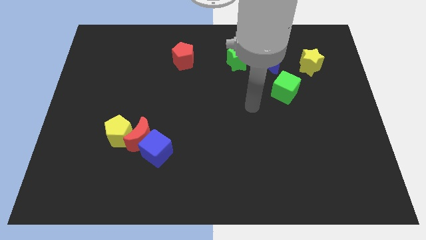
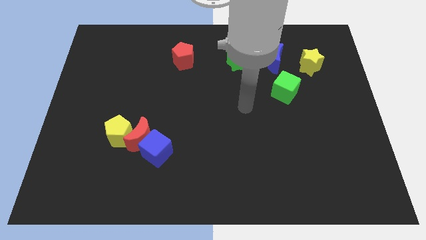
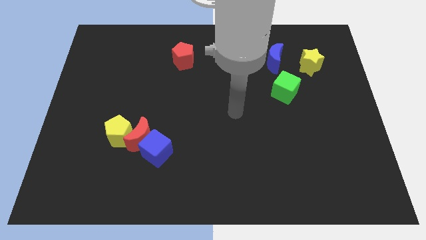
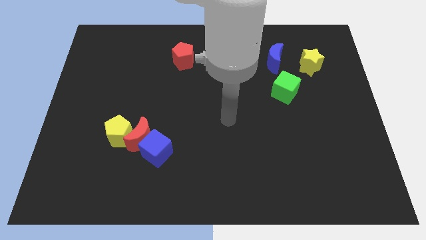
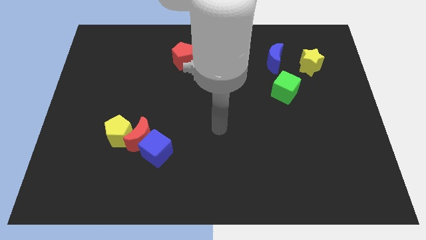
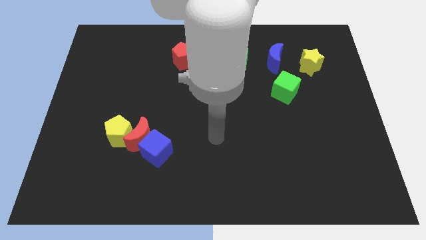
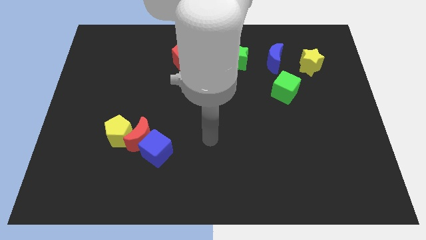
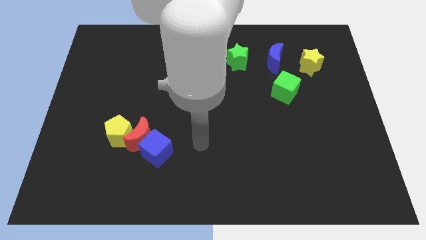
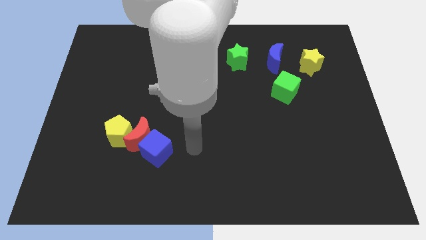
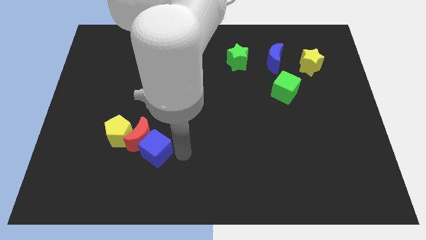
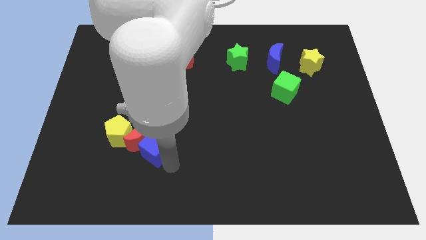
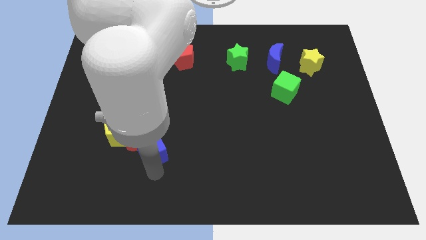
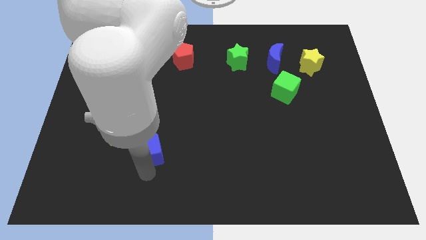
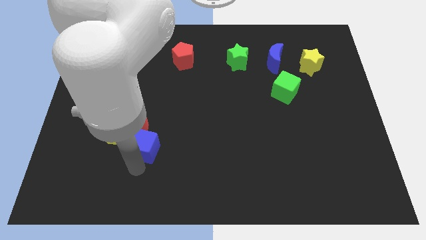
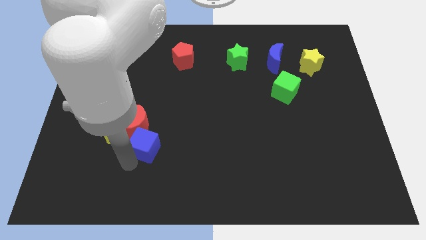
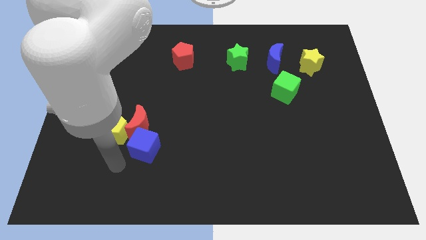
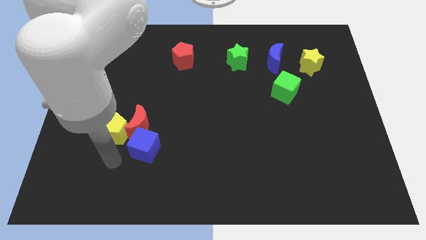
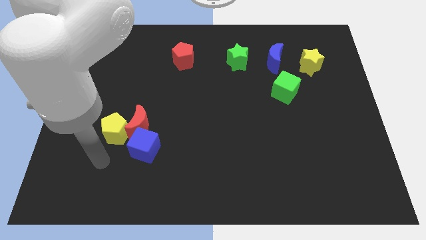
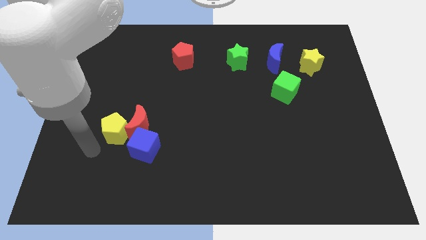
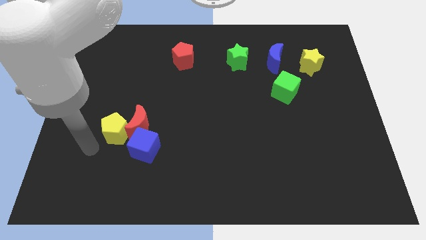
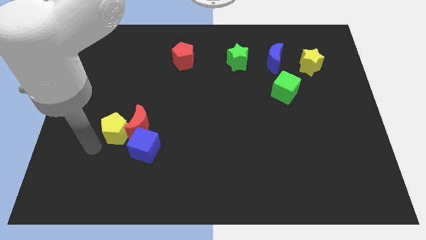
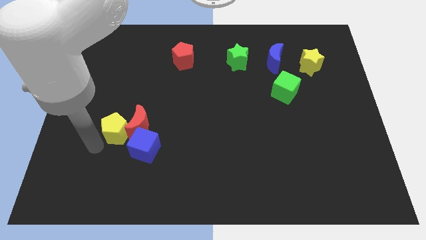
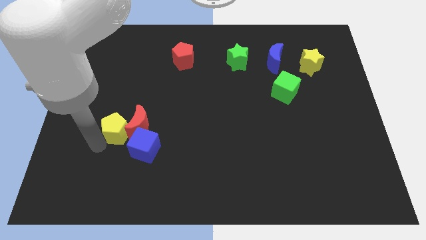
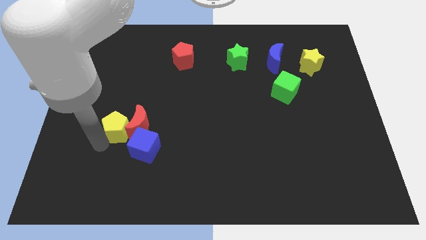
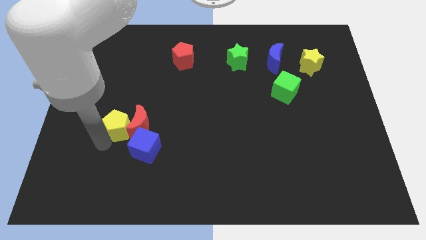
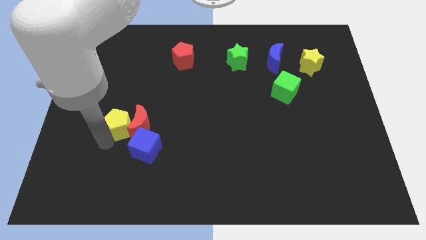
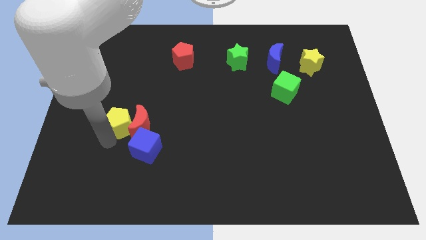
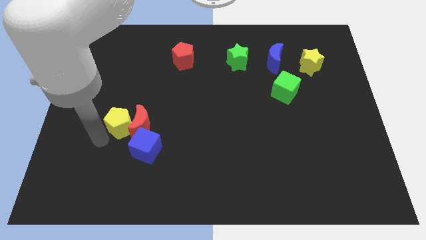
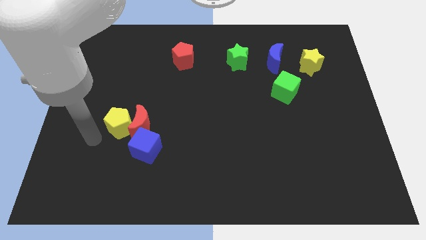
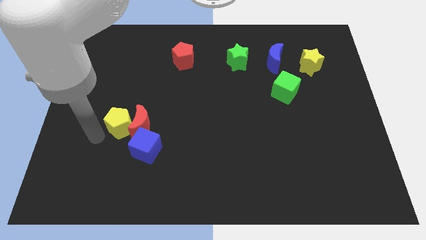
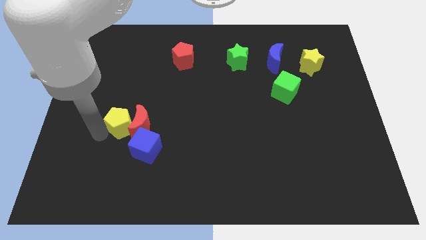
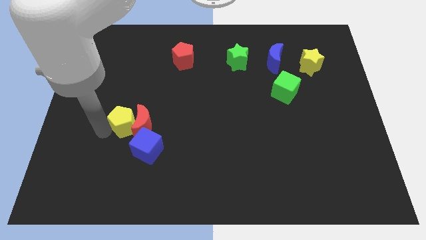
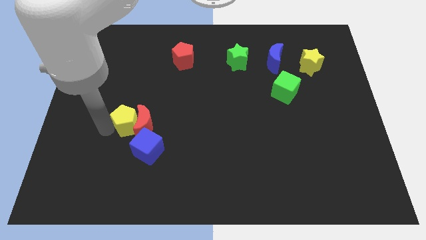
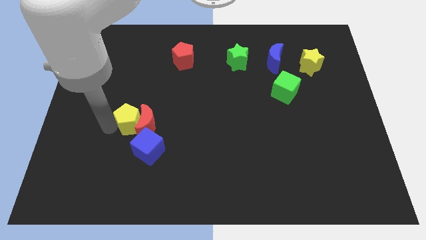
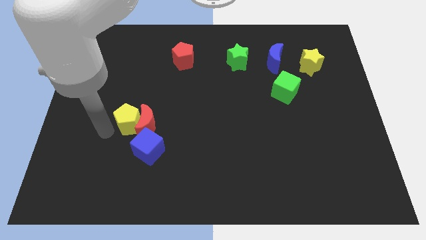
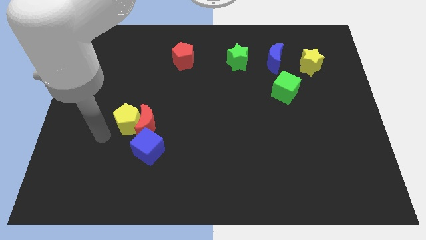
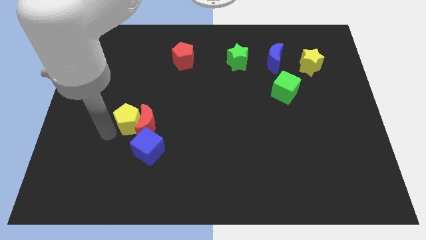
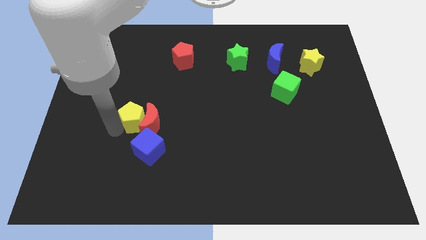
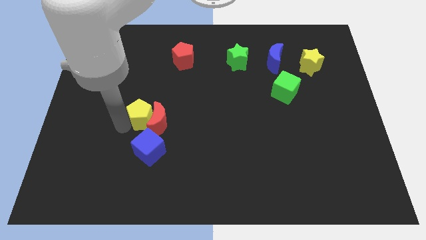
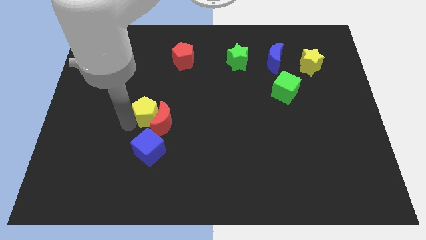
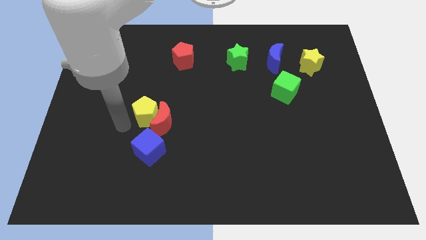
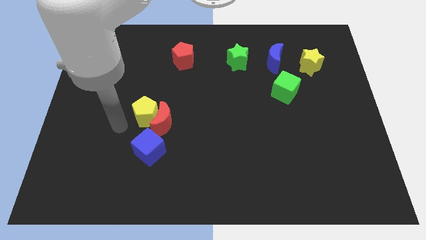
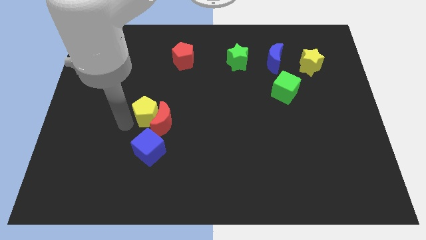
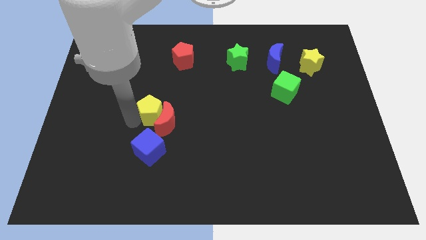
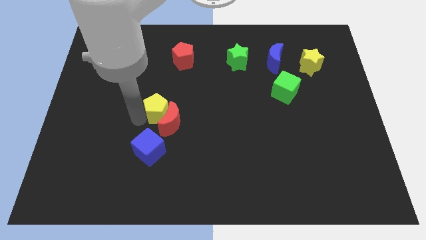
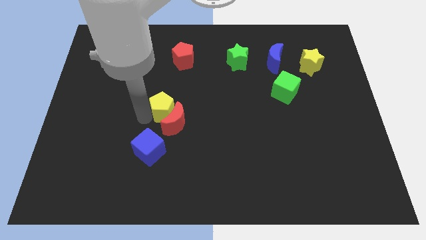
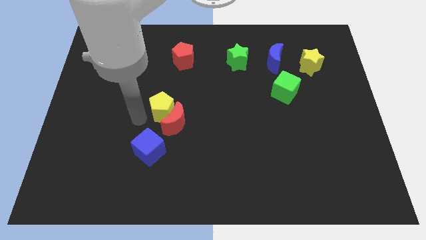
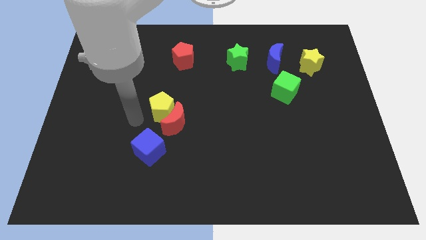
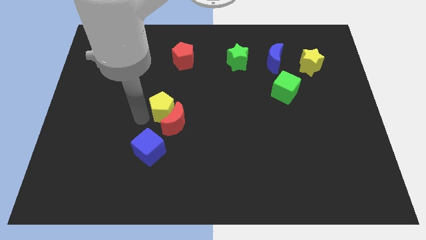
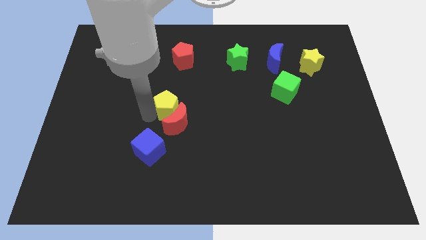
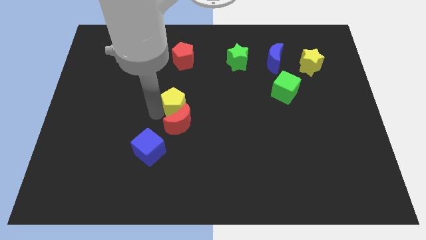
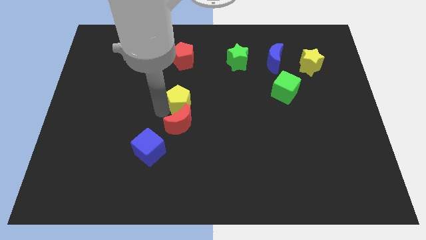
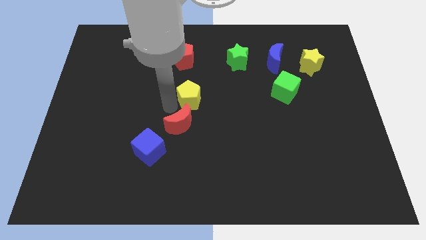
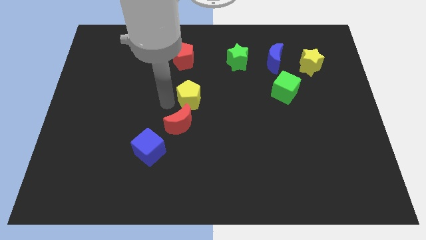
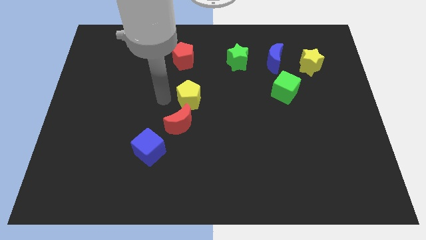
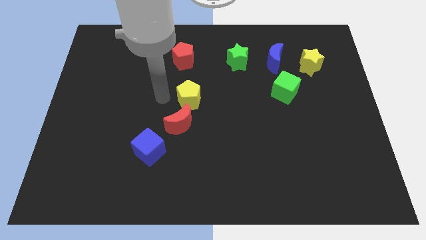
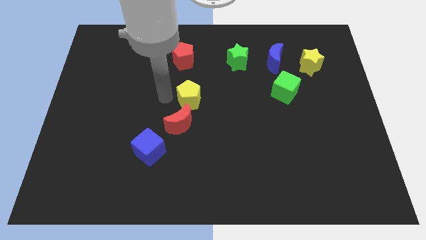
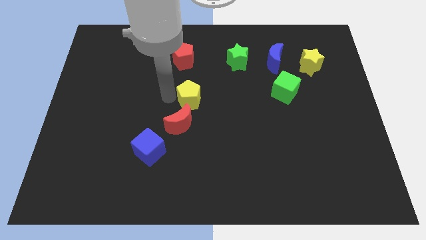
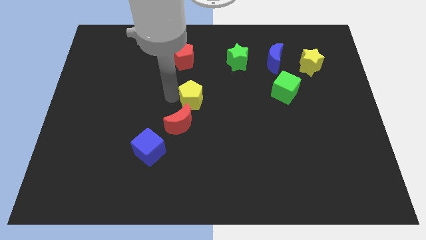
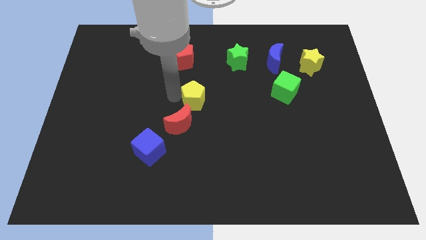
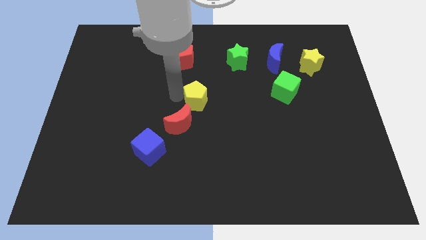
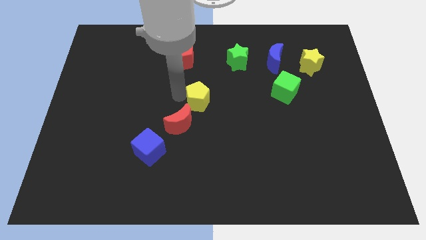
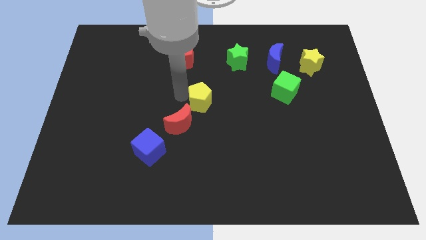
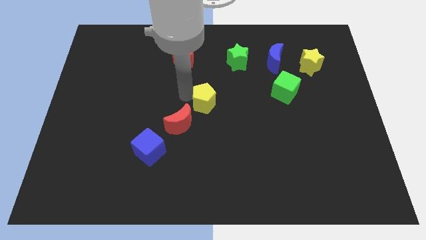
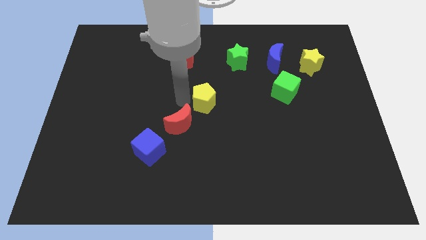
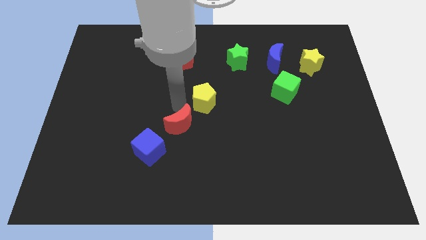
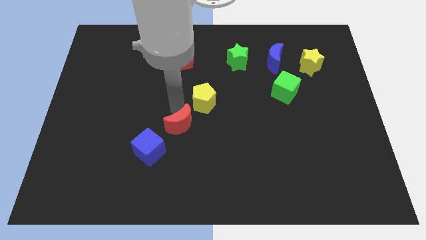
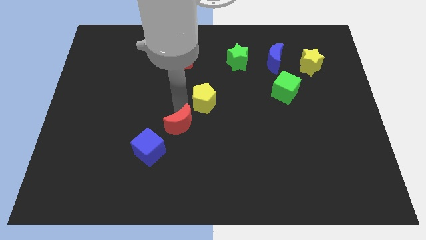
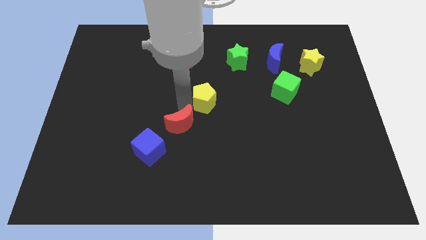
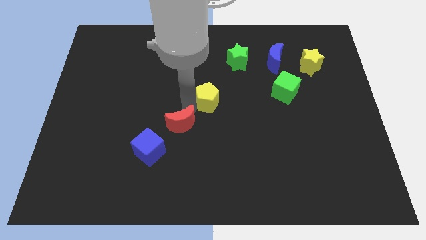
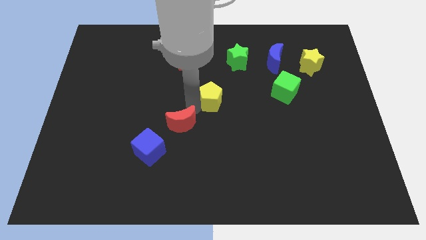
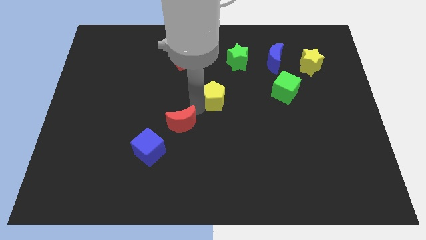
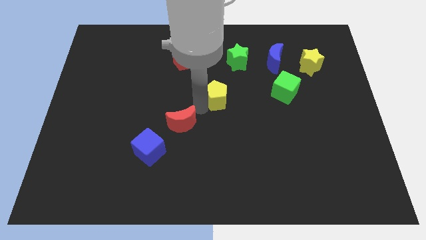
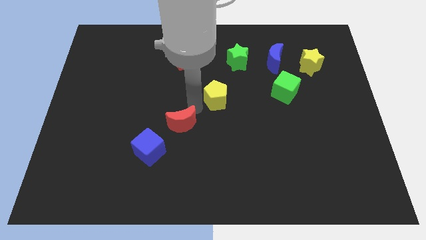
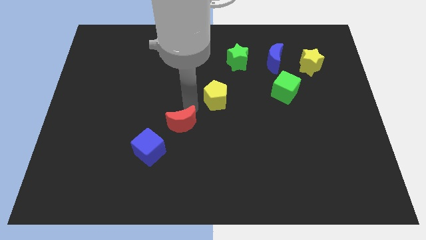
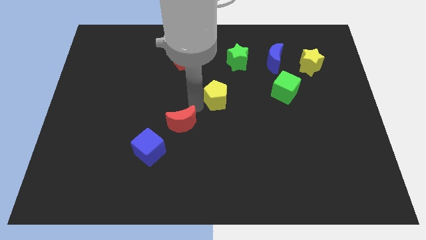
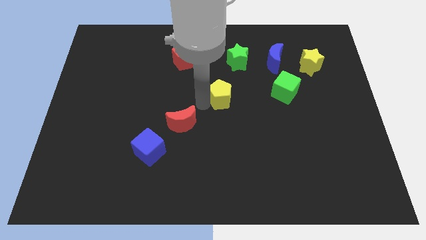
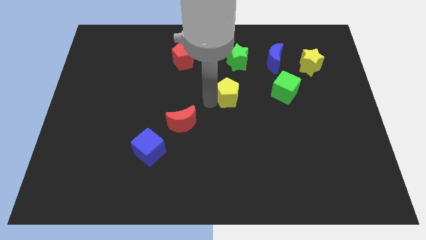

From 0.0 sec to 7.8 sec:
put the yellow pentagon to the bottom of the green star

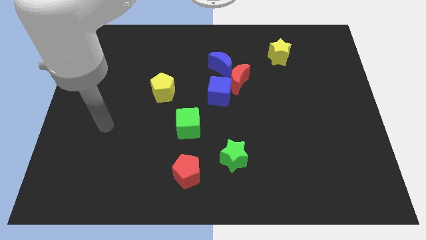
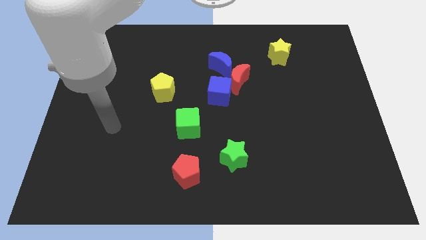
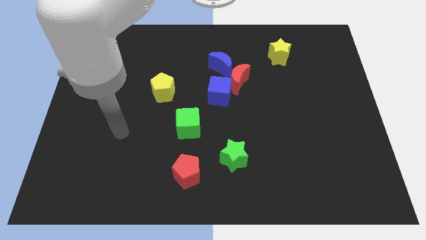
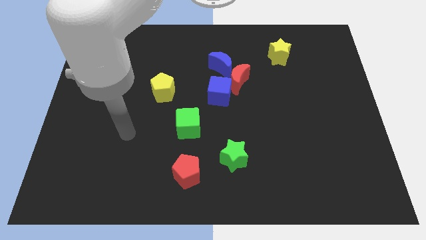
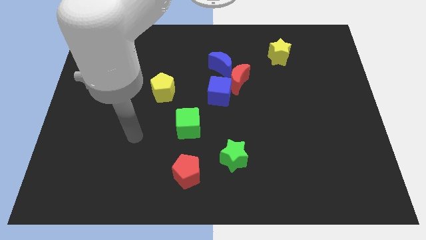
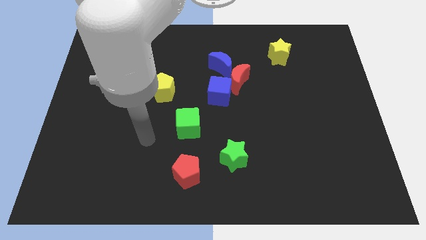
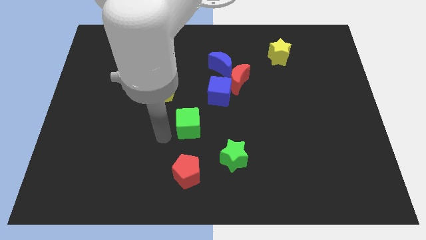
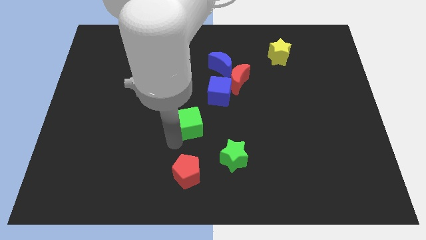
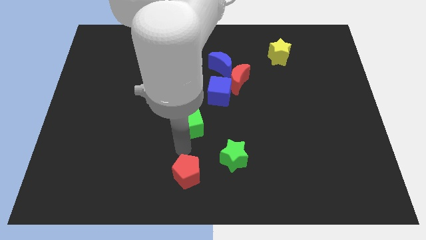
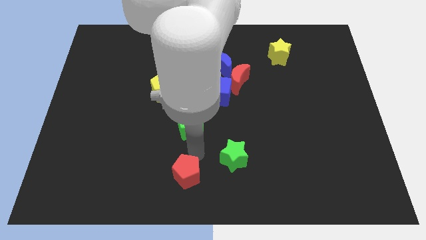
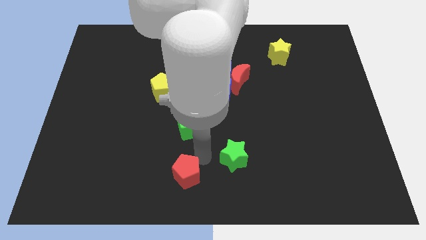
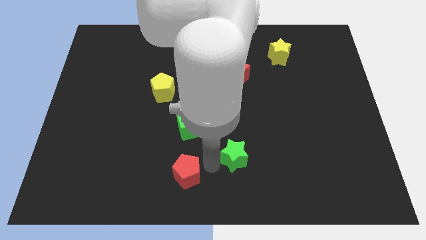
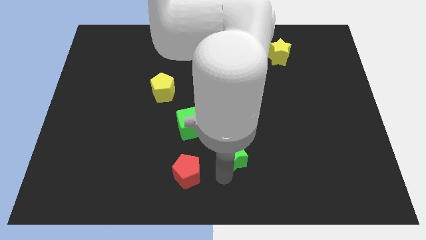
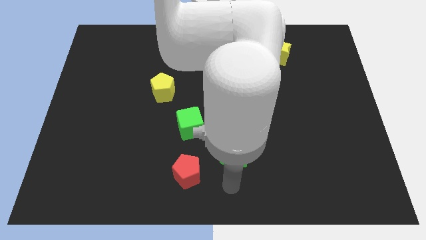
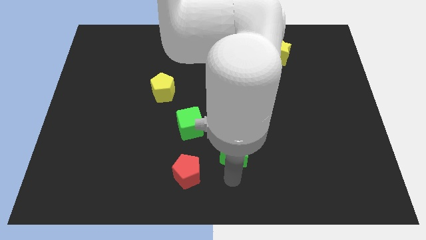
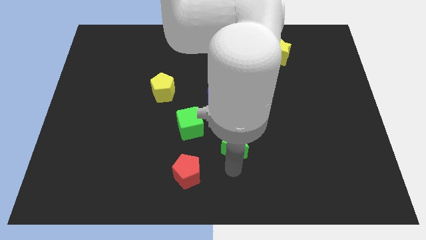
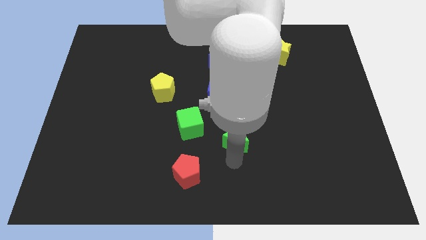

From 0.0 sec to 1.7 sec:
move the green star to the right of the green cube
